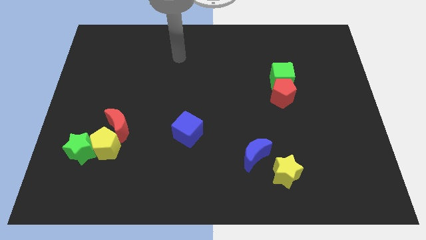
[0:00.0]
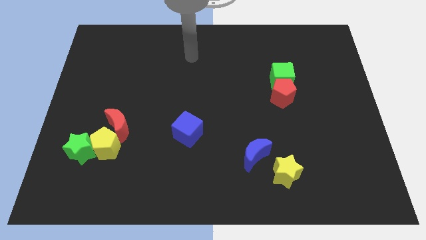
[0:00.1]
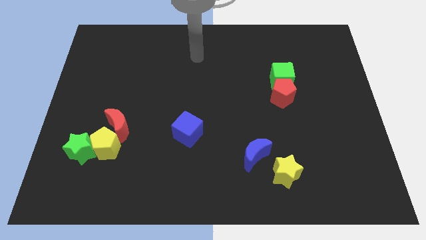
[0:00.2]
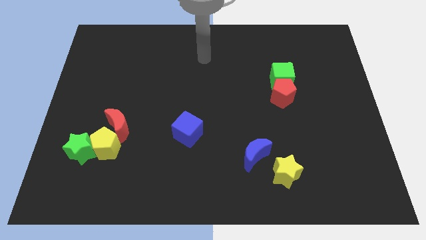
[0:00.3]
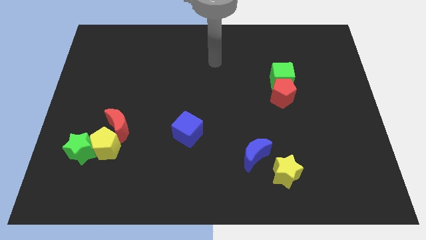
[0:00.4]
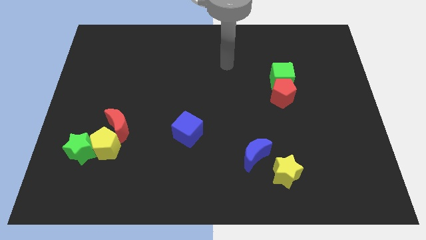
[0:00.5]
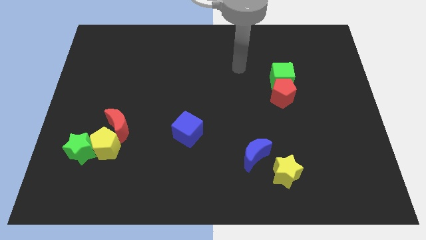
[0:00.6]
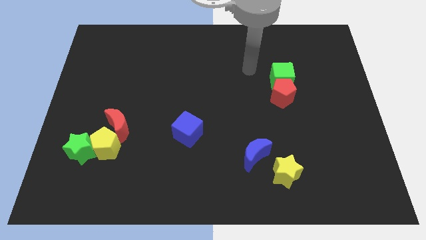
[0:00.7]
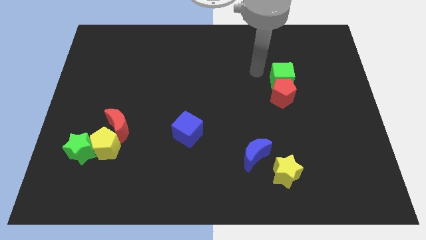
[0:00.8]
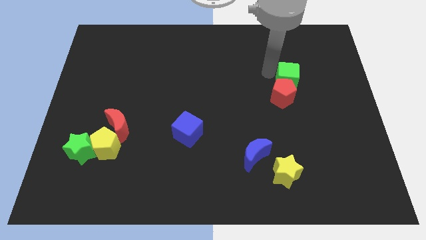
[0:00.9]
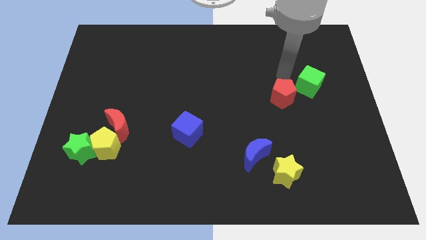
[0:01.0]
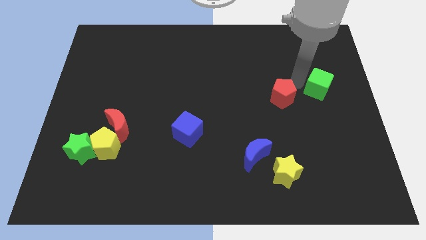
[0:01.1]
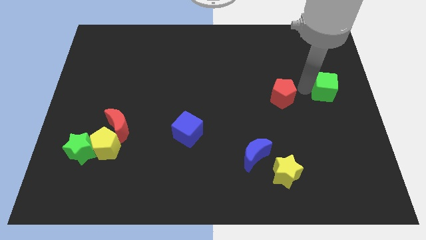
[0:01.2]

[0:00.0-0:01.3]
move the red pentagon away from the green cube

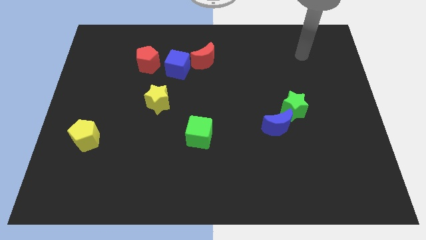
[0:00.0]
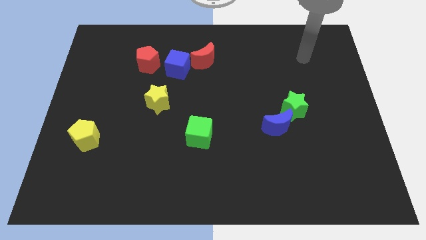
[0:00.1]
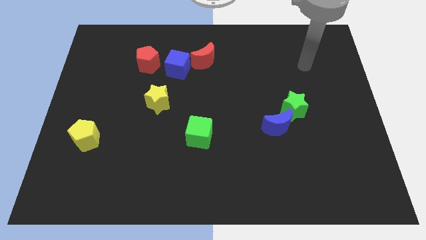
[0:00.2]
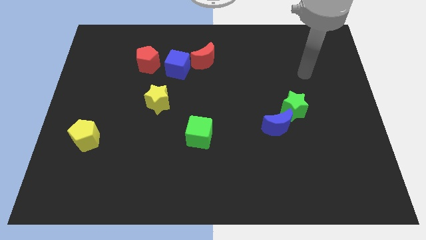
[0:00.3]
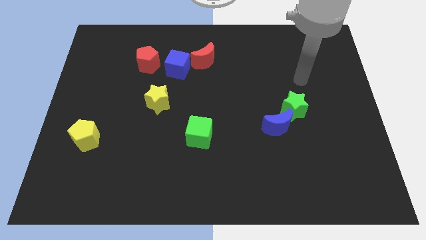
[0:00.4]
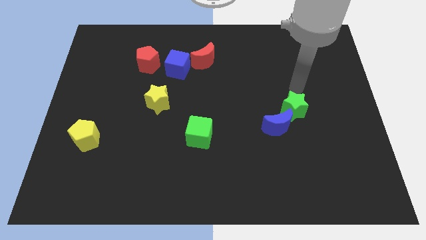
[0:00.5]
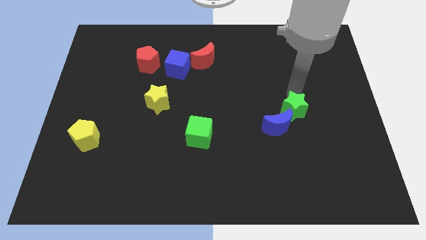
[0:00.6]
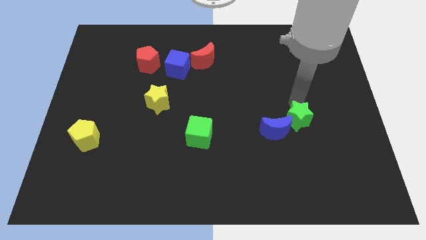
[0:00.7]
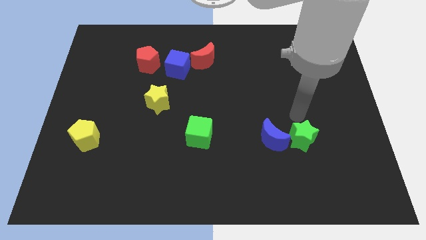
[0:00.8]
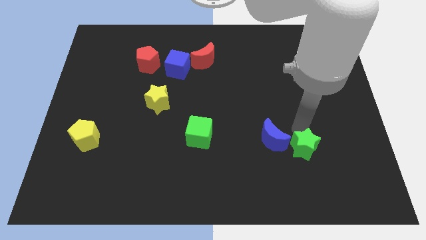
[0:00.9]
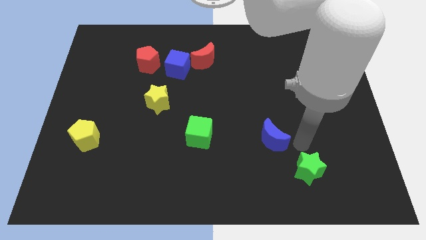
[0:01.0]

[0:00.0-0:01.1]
separate the blue moon from the green star

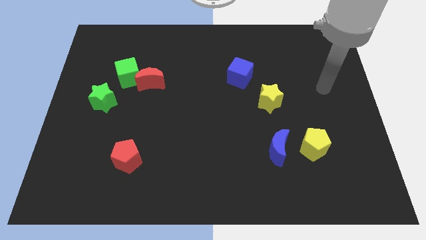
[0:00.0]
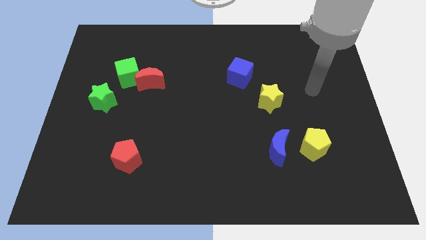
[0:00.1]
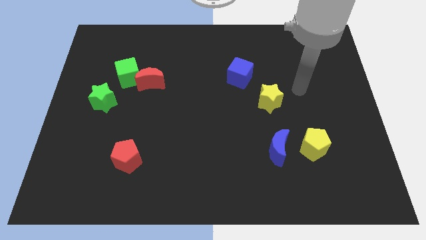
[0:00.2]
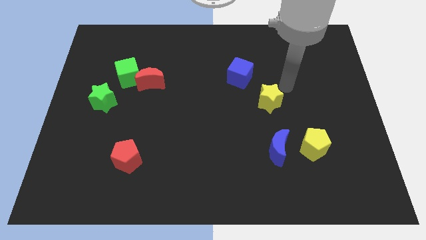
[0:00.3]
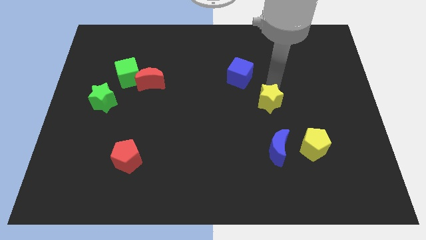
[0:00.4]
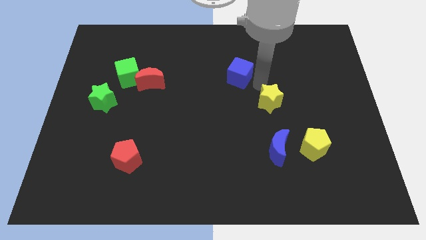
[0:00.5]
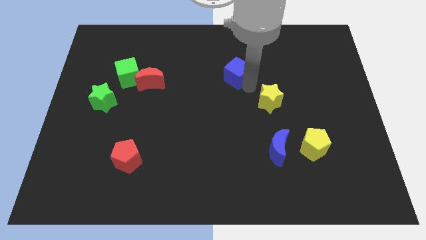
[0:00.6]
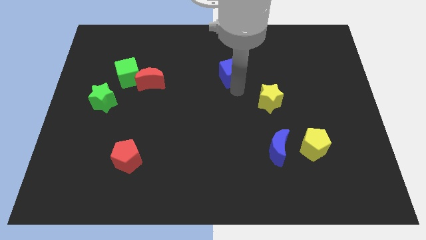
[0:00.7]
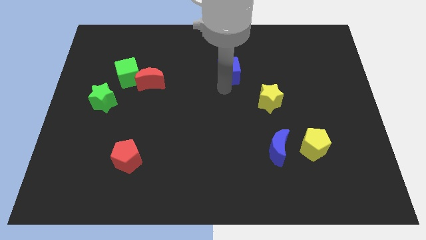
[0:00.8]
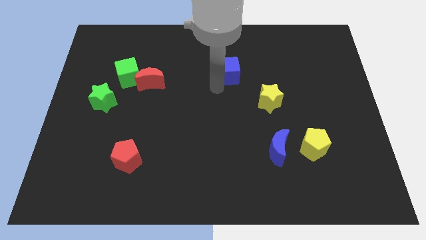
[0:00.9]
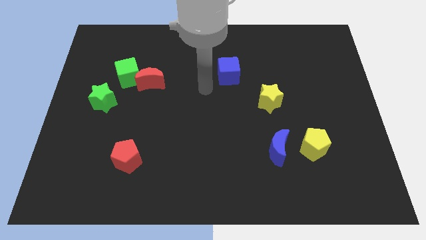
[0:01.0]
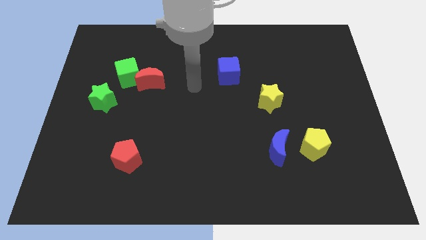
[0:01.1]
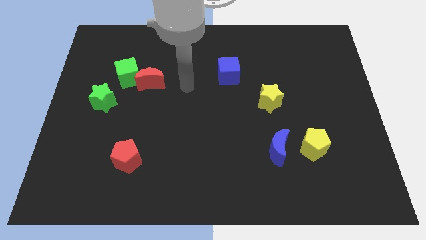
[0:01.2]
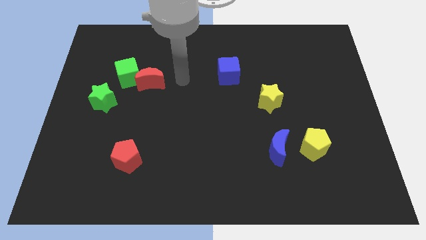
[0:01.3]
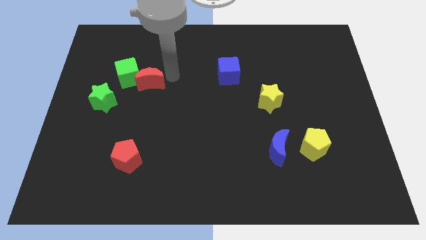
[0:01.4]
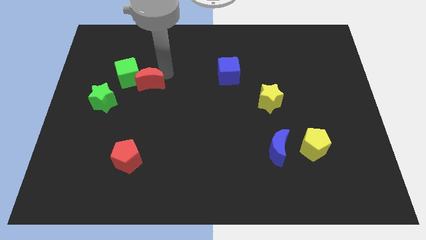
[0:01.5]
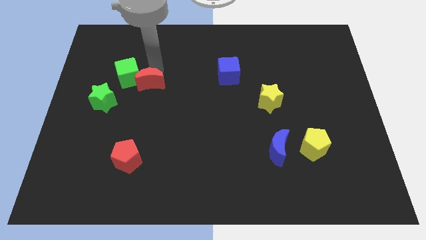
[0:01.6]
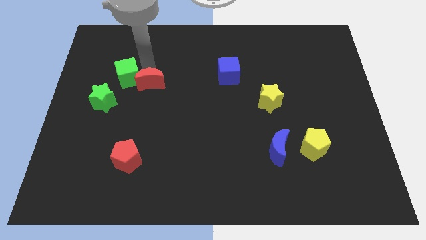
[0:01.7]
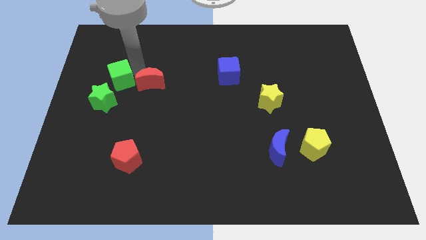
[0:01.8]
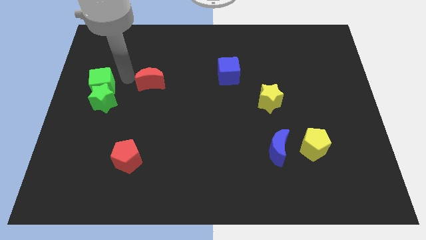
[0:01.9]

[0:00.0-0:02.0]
separate the red moon from the green cube

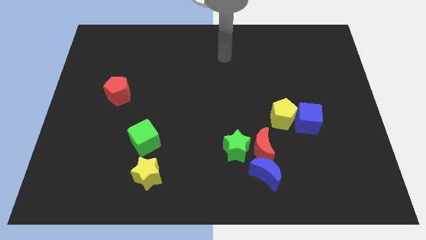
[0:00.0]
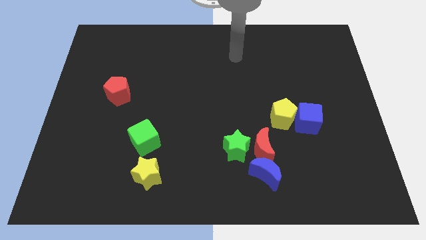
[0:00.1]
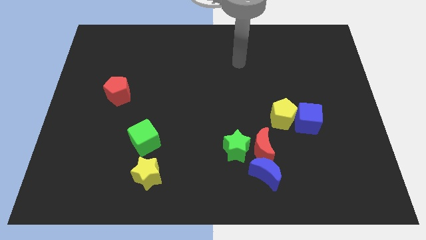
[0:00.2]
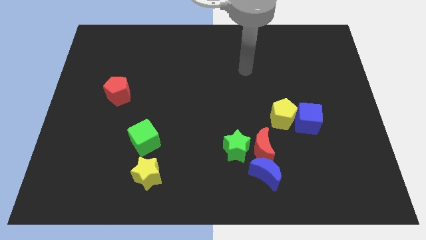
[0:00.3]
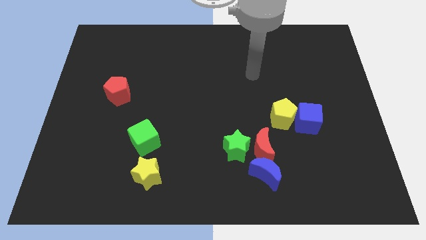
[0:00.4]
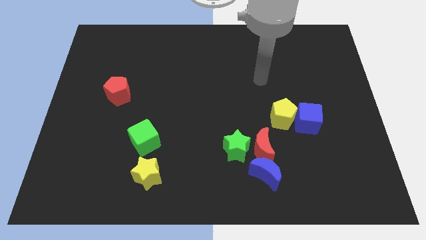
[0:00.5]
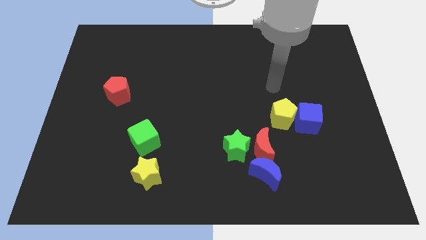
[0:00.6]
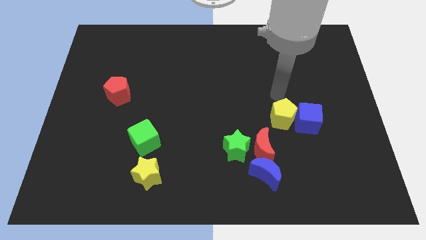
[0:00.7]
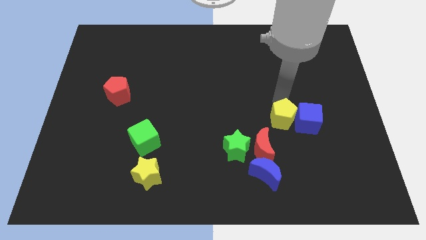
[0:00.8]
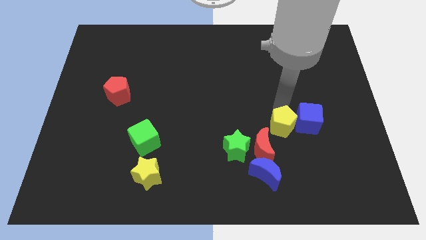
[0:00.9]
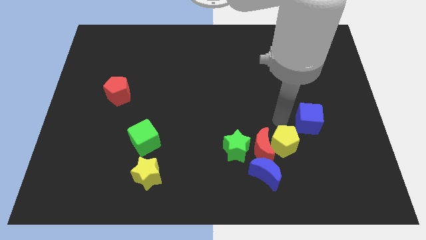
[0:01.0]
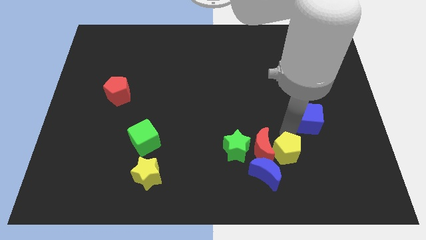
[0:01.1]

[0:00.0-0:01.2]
move the blue cube away from the yellow pentagon

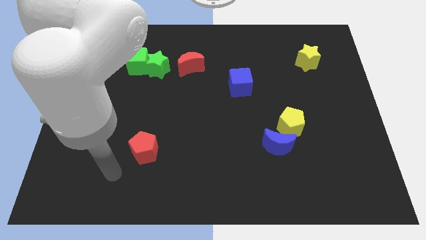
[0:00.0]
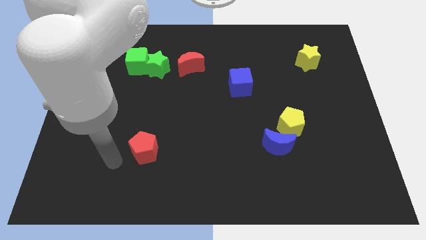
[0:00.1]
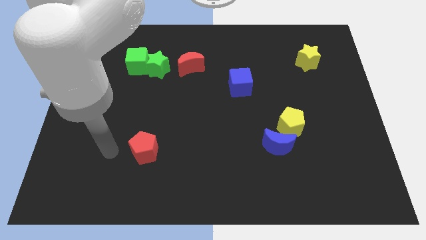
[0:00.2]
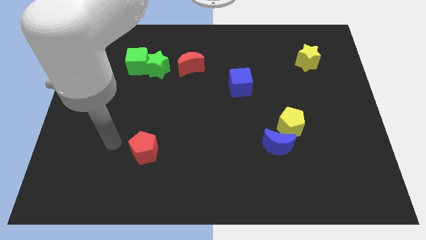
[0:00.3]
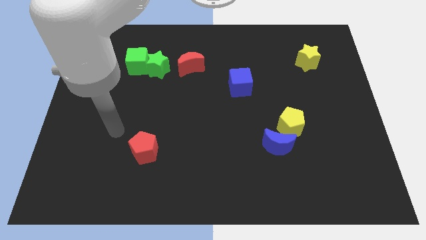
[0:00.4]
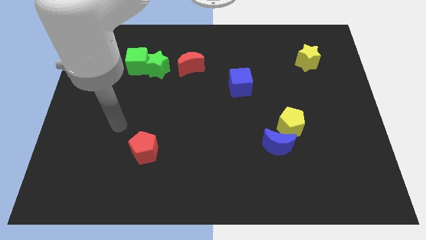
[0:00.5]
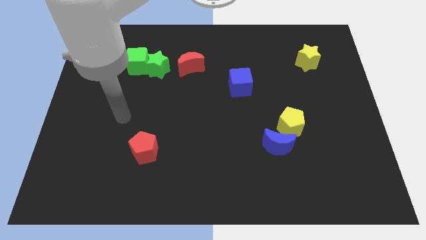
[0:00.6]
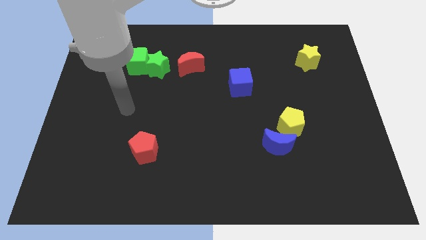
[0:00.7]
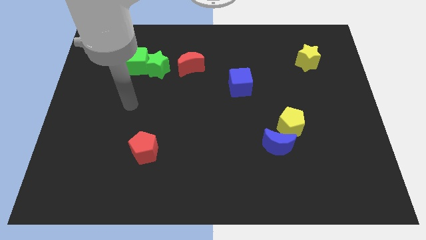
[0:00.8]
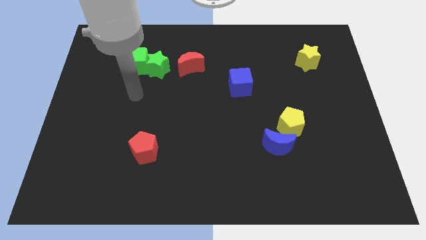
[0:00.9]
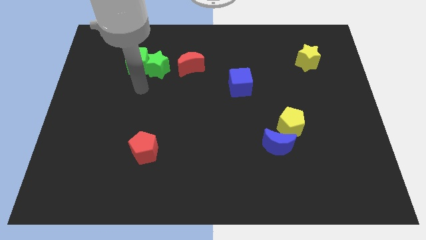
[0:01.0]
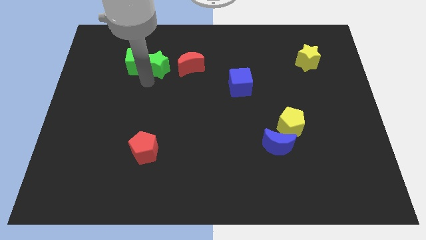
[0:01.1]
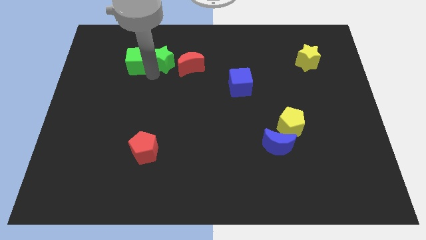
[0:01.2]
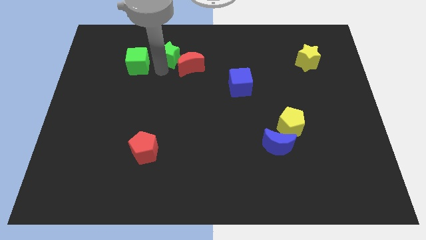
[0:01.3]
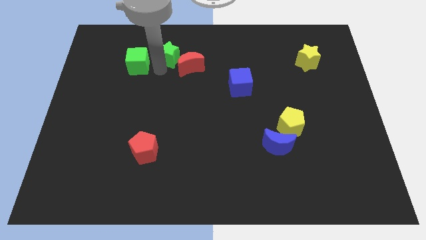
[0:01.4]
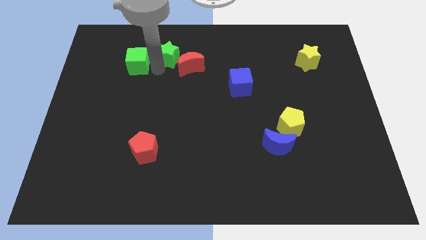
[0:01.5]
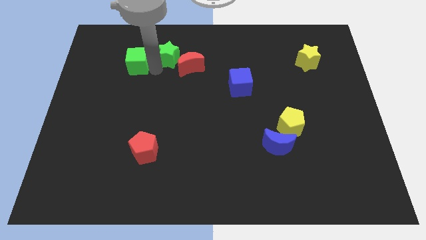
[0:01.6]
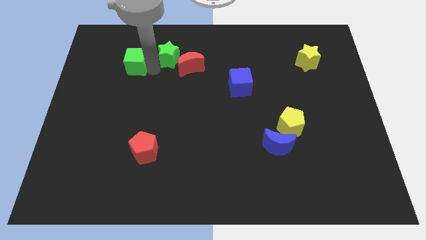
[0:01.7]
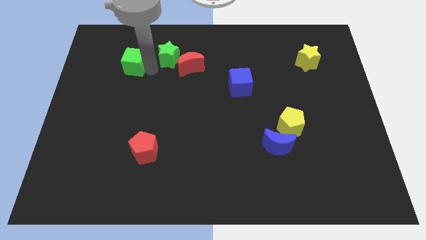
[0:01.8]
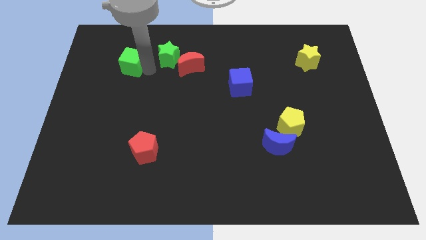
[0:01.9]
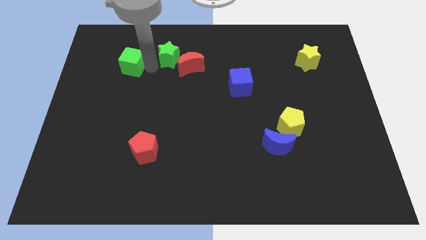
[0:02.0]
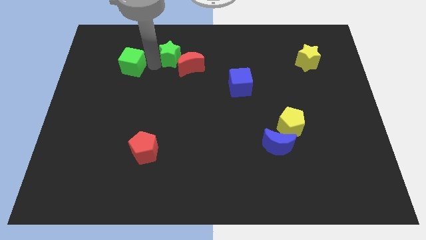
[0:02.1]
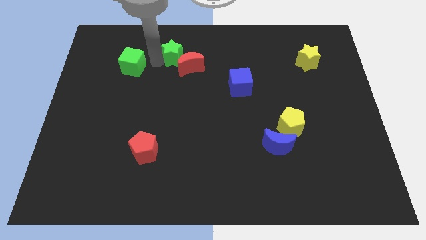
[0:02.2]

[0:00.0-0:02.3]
separate the green cube from the green star

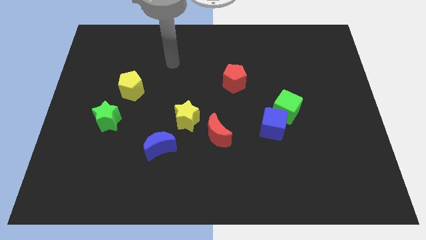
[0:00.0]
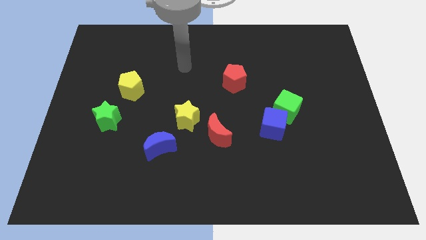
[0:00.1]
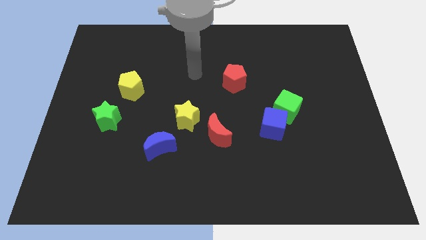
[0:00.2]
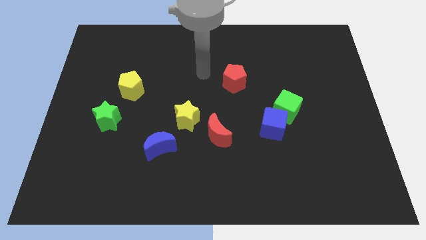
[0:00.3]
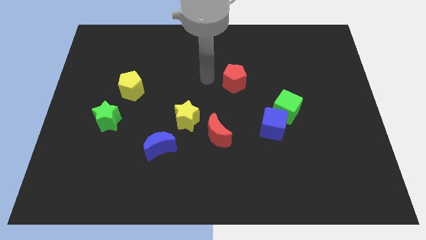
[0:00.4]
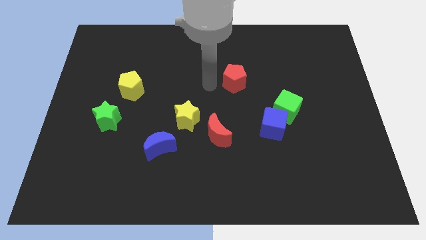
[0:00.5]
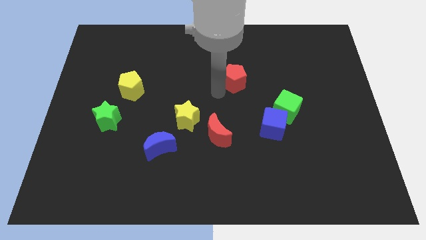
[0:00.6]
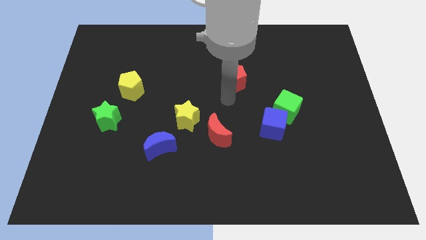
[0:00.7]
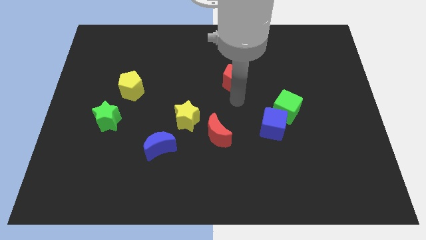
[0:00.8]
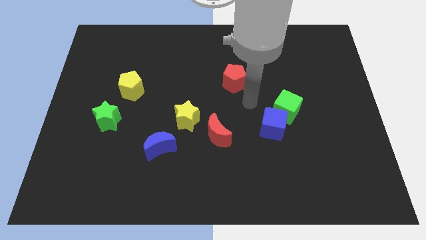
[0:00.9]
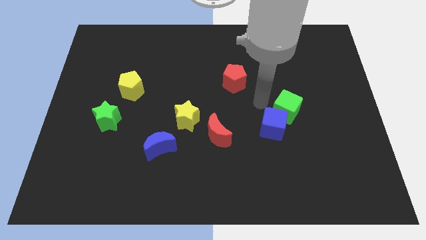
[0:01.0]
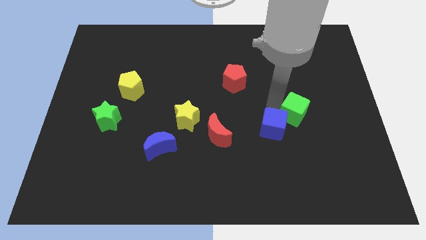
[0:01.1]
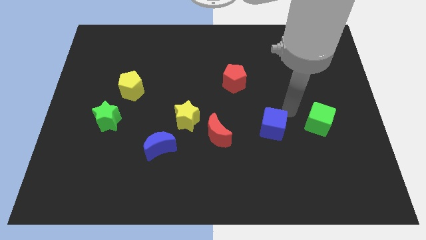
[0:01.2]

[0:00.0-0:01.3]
pull the blue cube apart from the green cube
